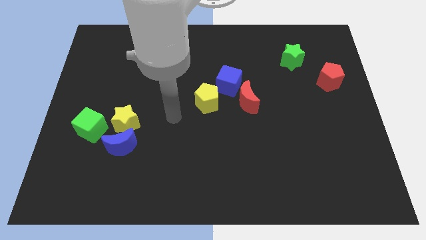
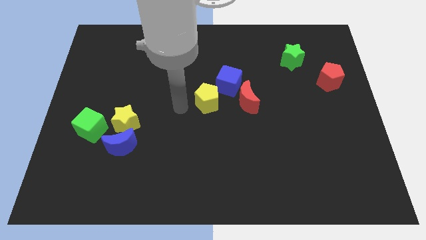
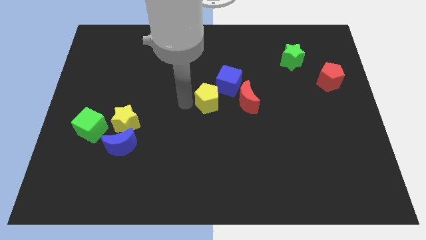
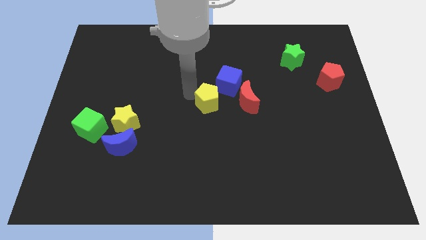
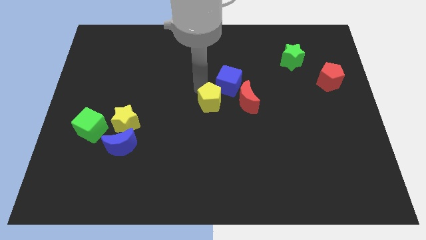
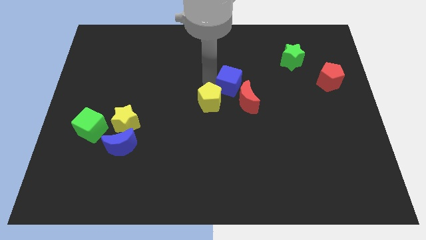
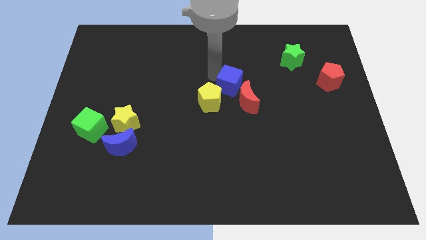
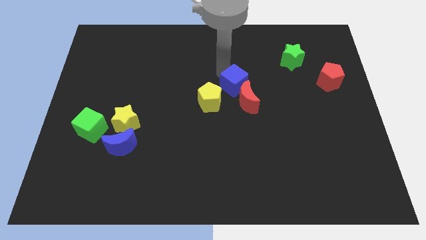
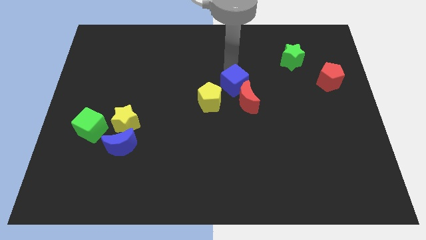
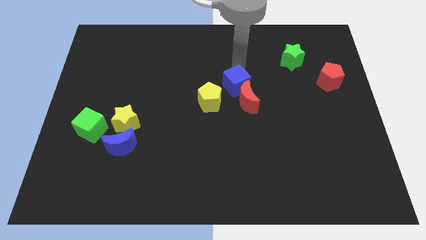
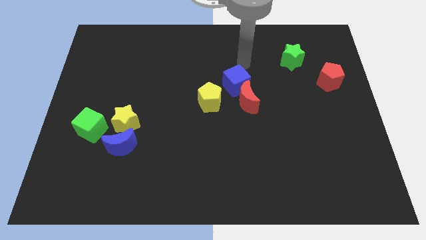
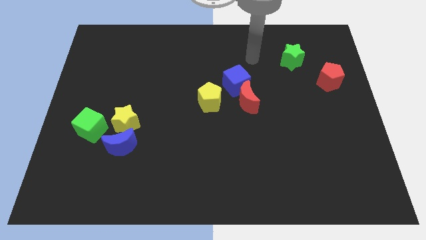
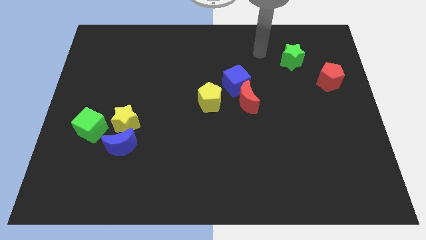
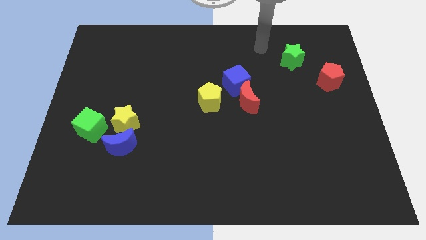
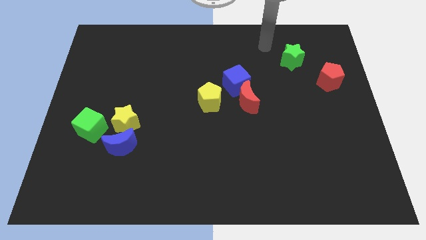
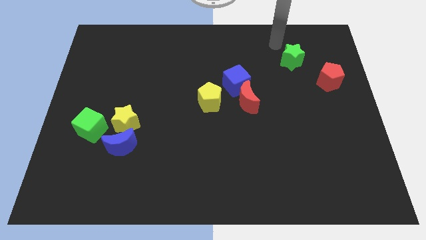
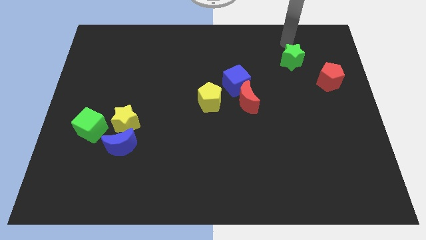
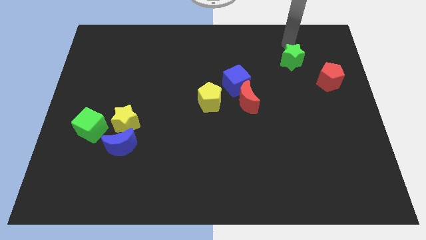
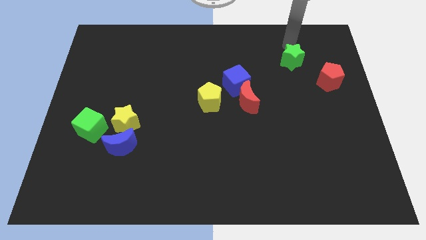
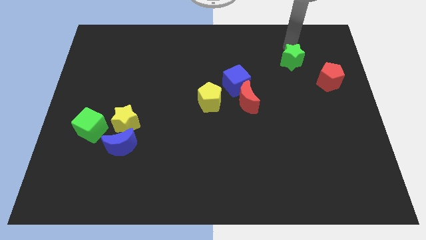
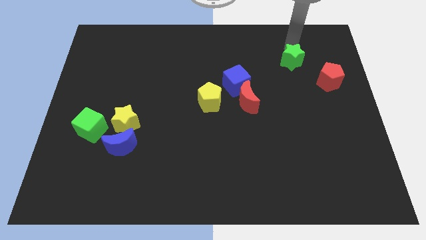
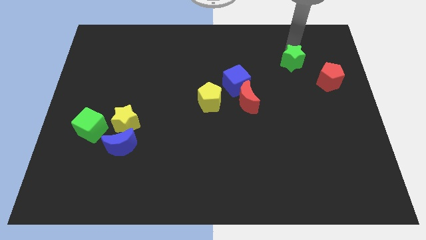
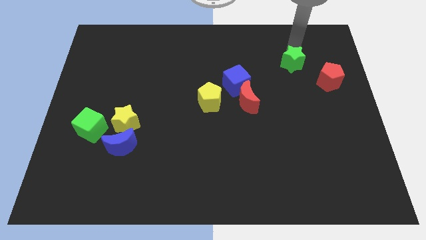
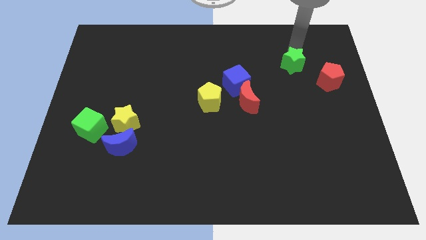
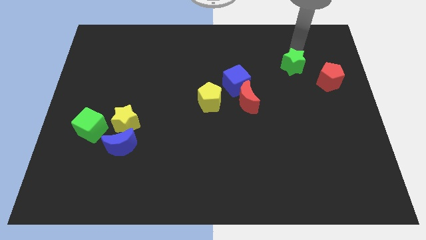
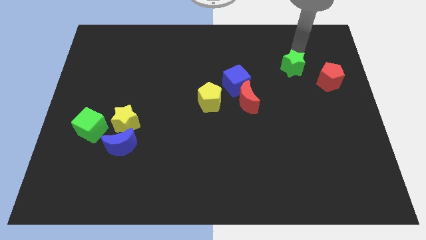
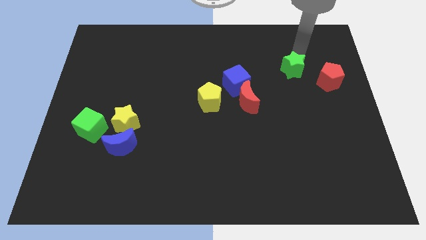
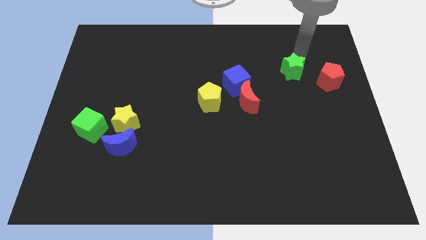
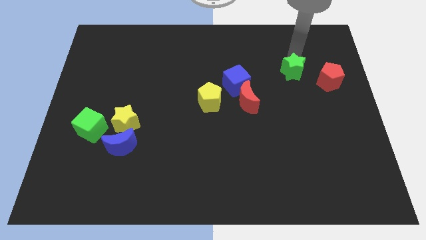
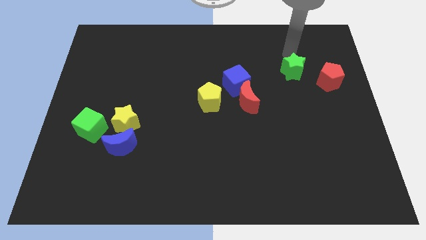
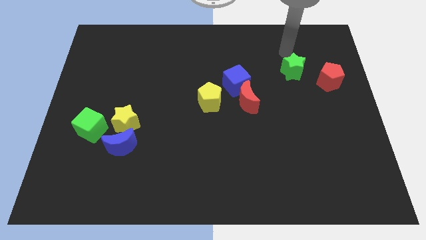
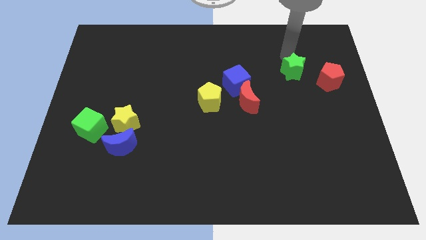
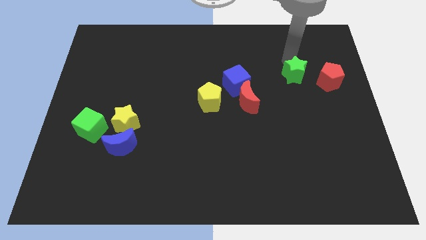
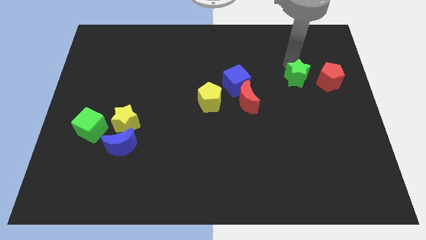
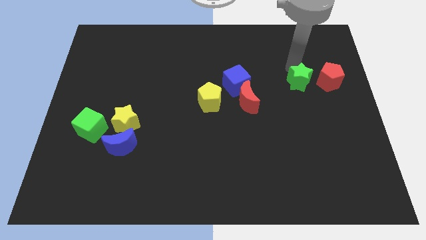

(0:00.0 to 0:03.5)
push the green star down somewhat

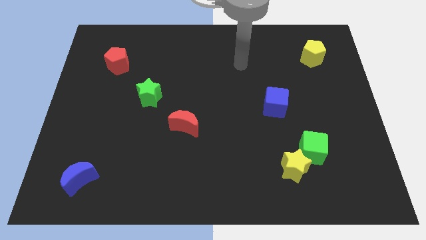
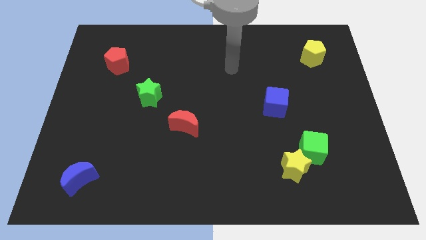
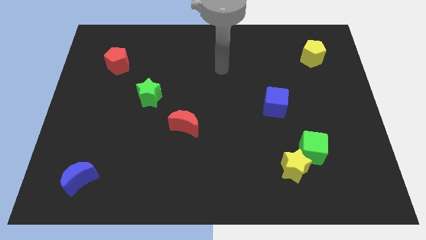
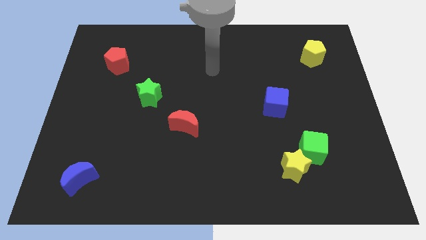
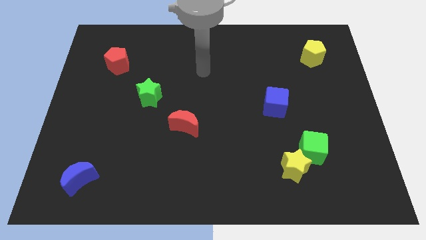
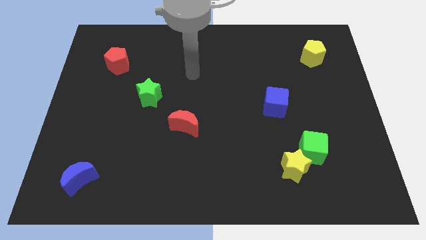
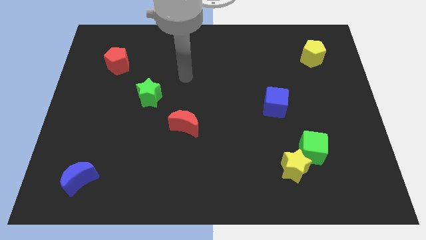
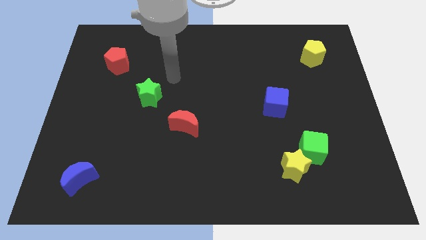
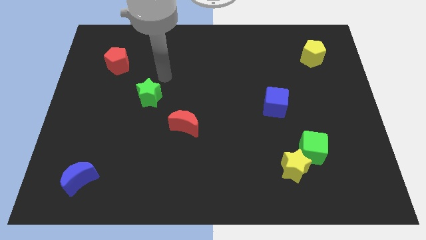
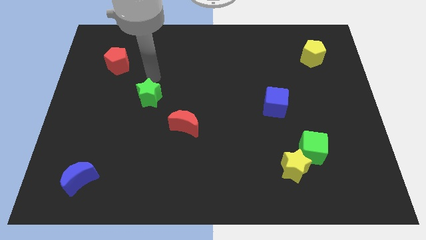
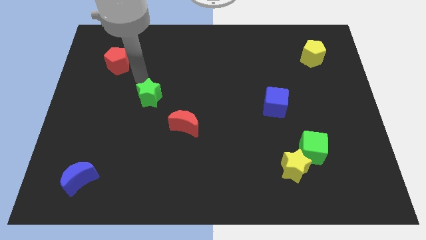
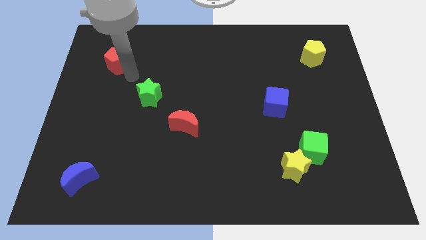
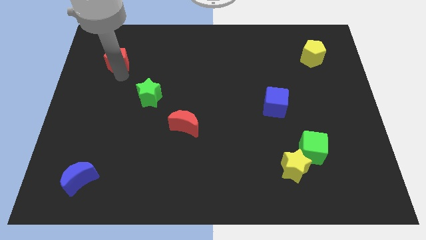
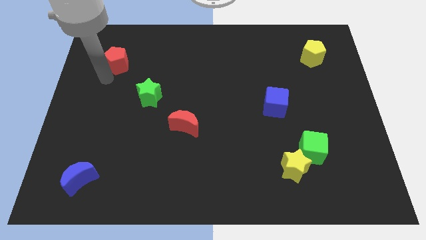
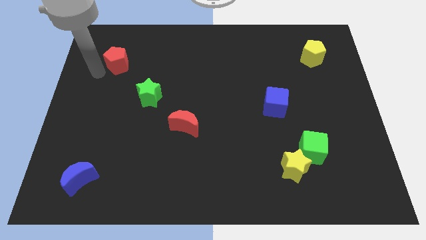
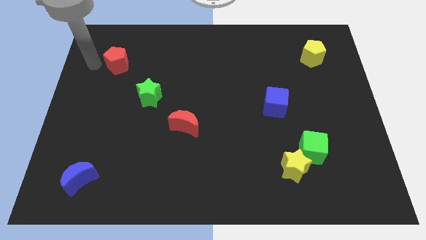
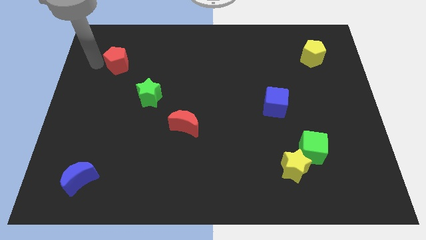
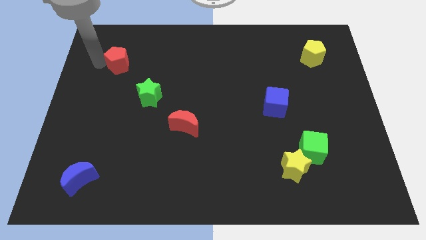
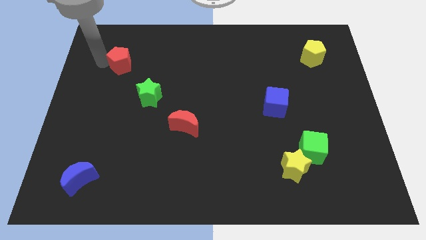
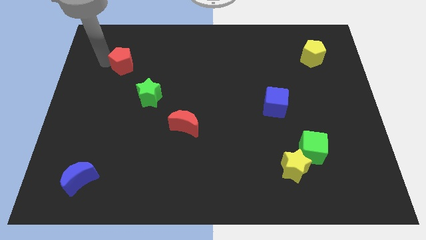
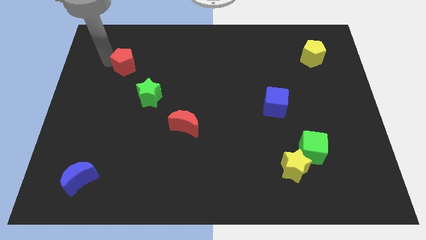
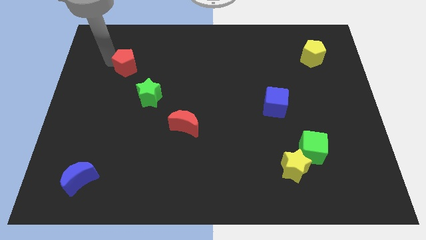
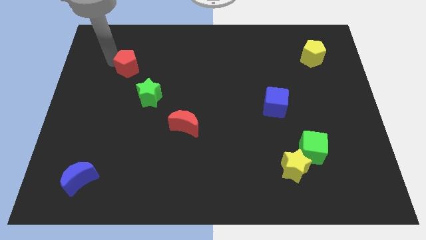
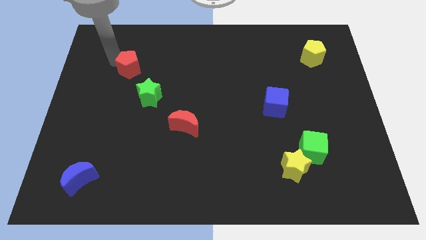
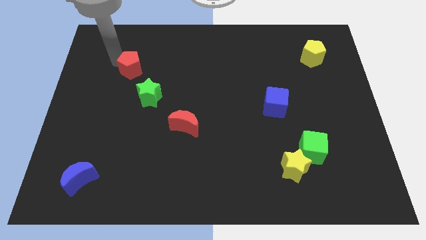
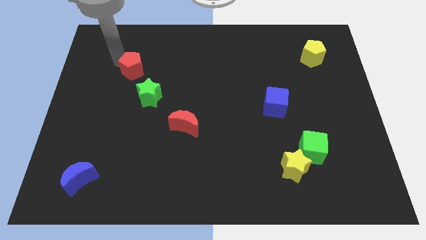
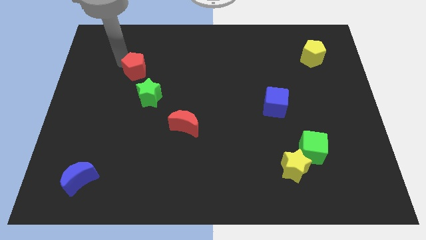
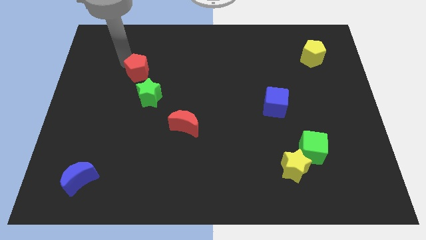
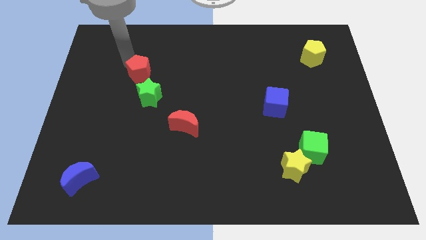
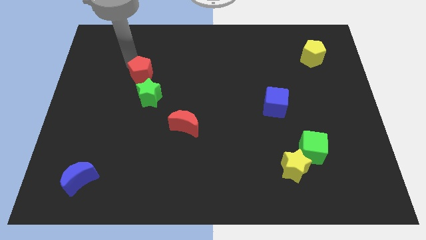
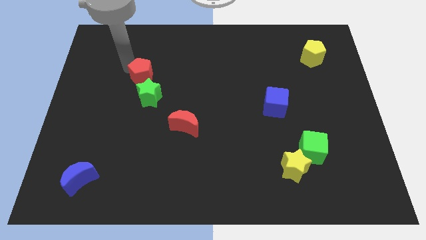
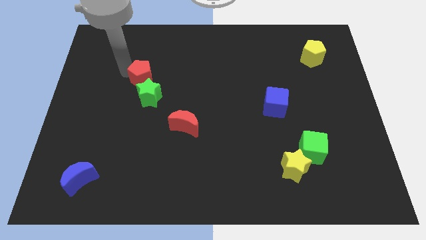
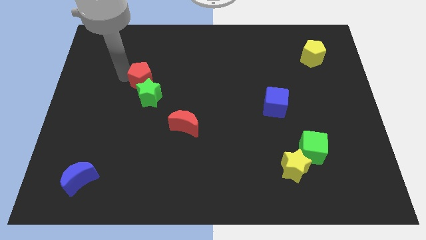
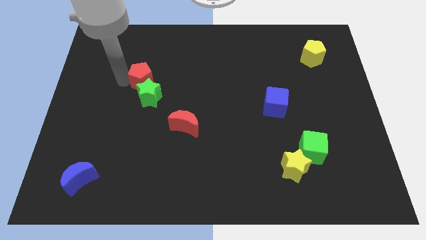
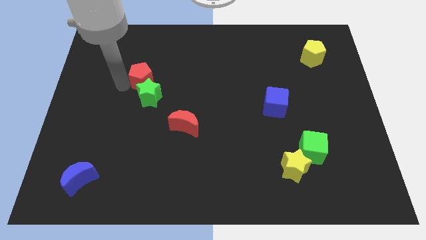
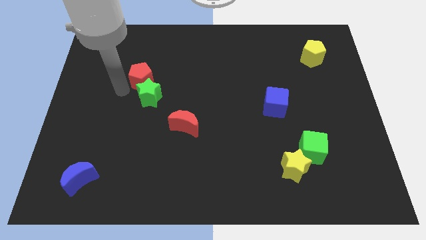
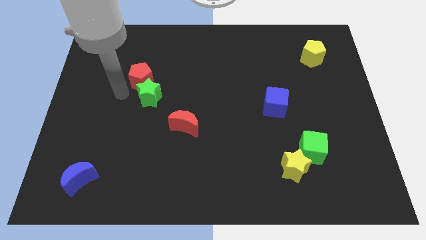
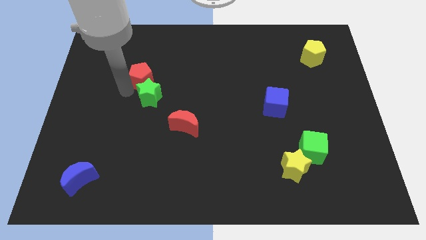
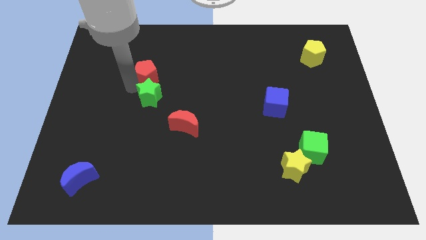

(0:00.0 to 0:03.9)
move the red pentagon slightly to the right

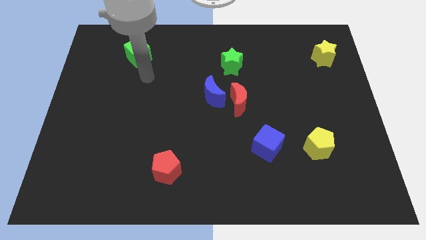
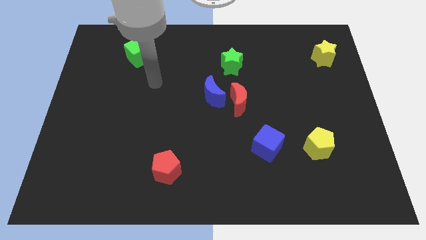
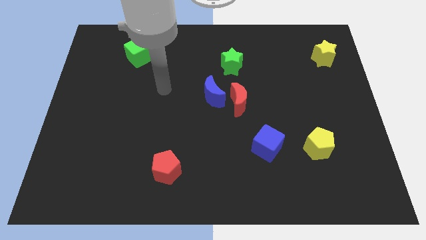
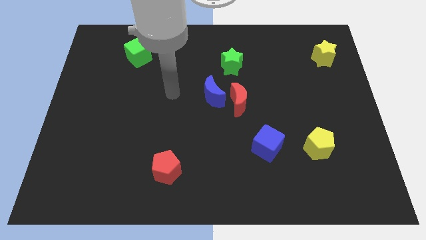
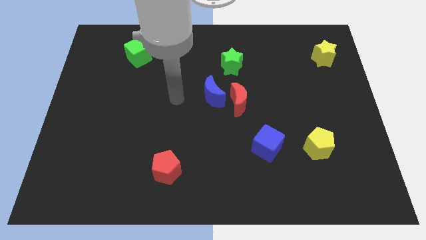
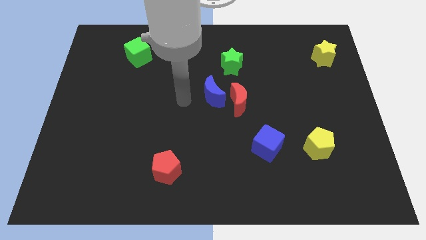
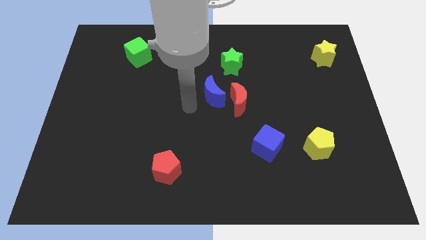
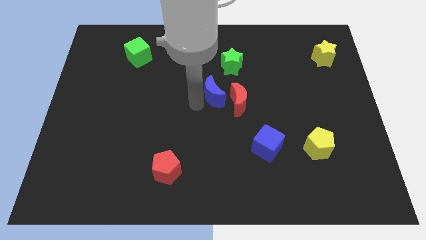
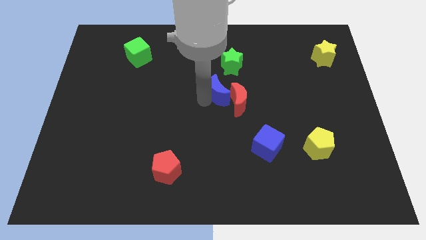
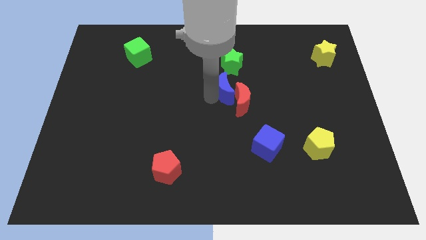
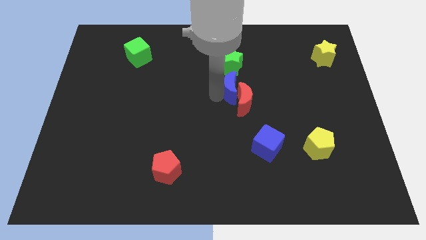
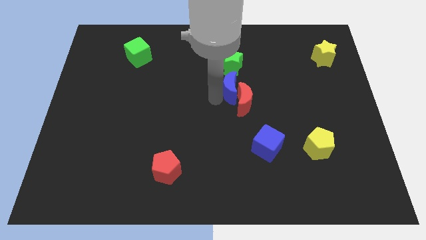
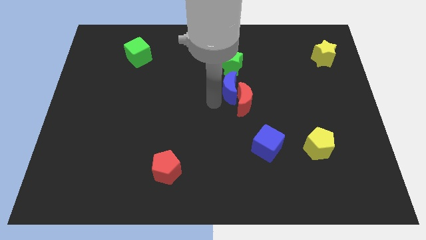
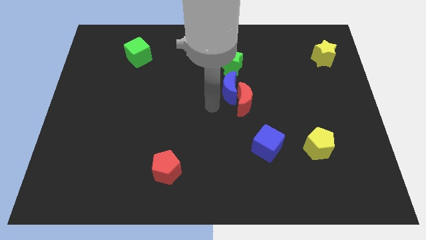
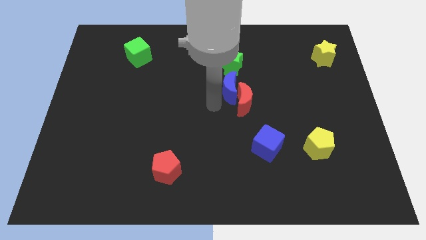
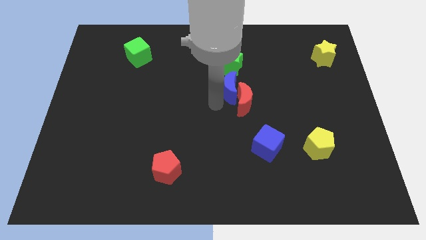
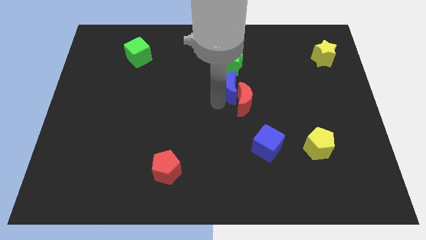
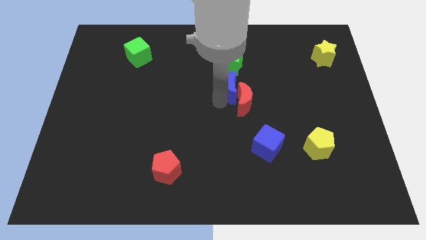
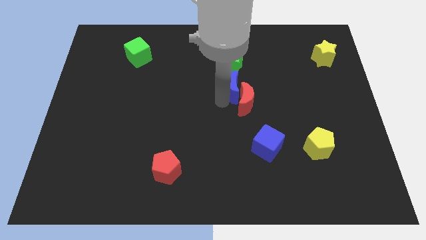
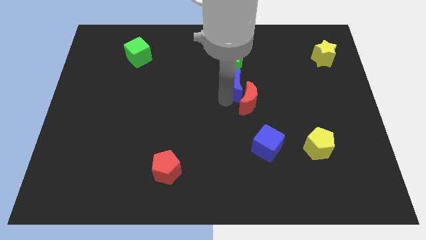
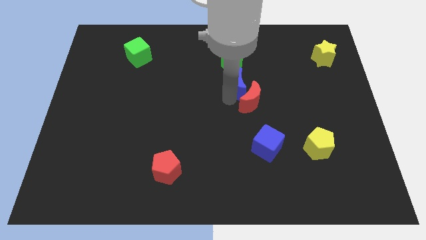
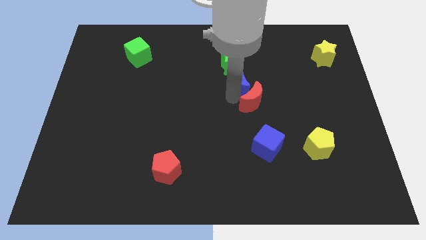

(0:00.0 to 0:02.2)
slightly push the blue moon up and right
